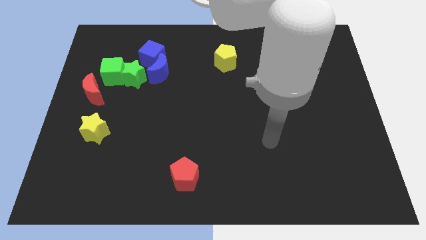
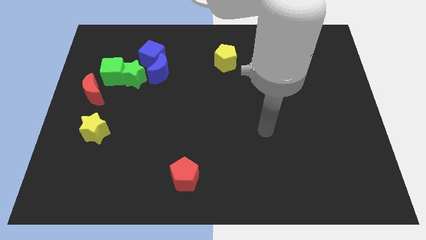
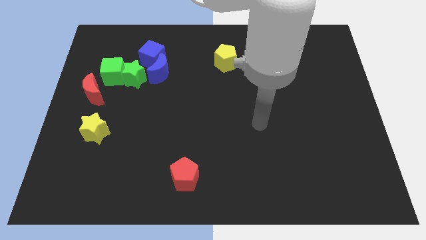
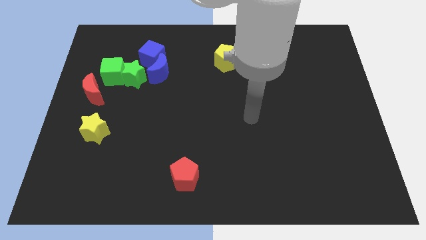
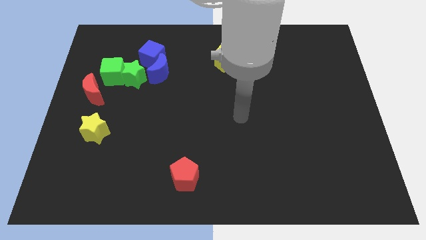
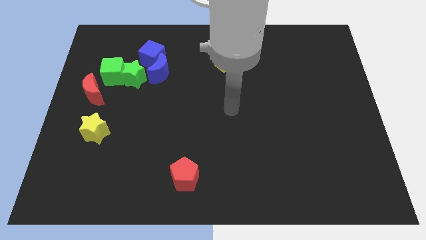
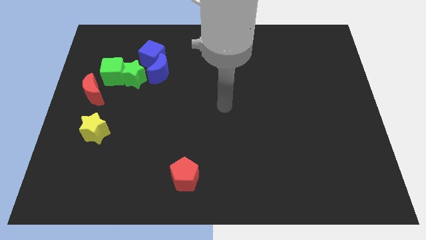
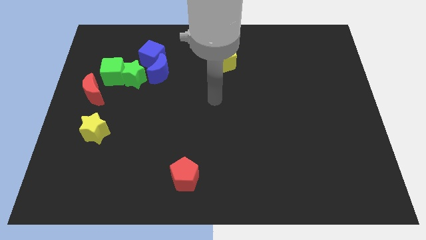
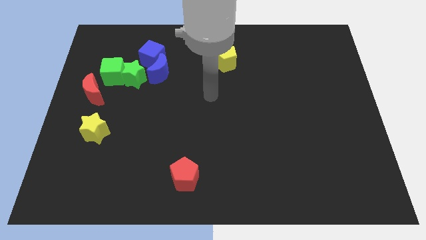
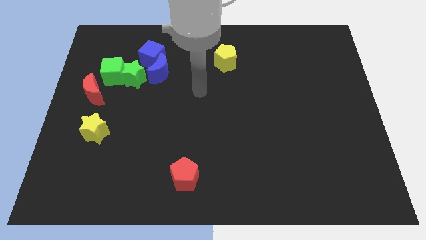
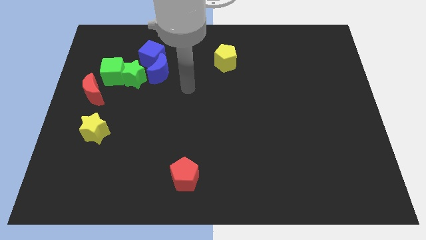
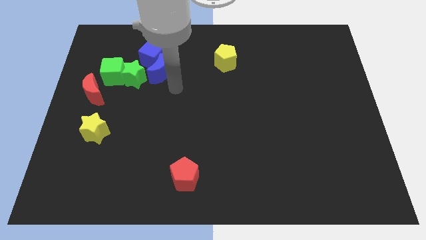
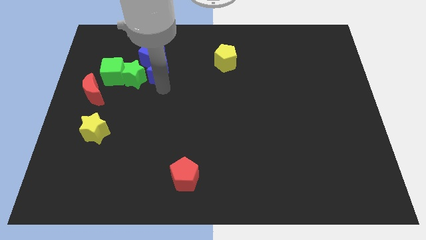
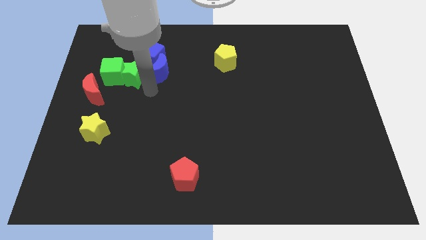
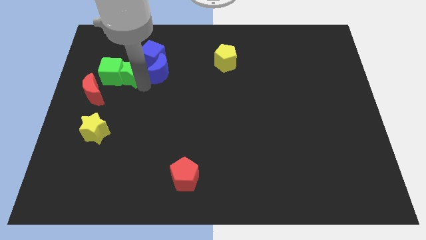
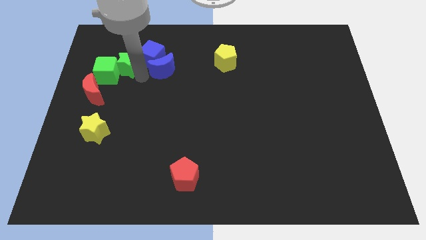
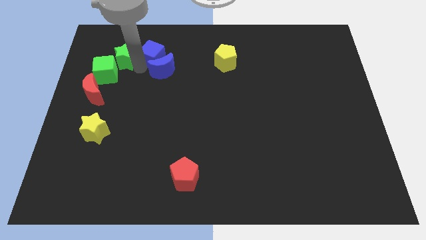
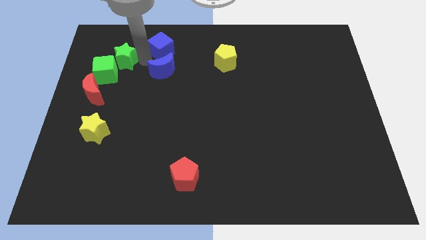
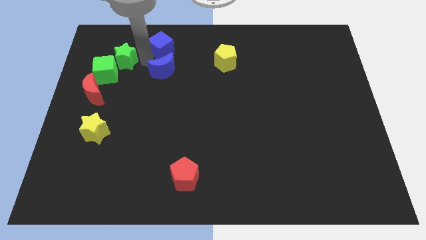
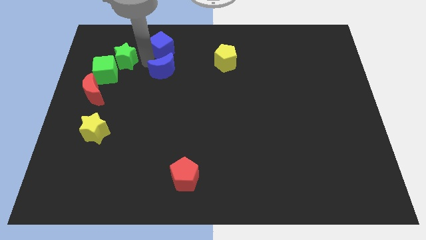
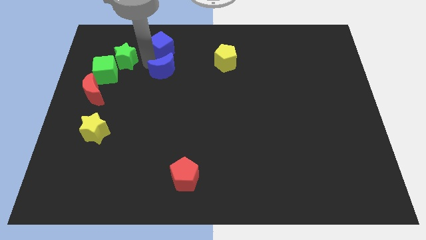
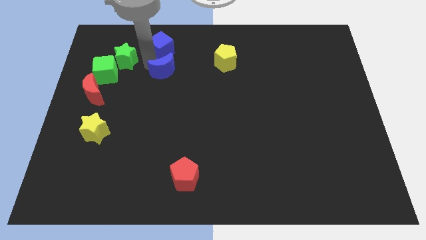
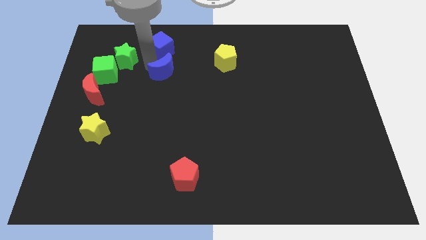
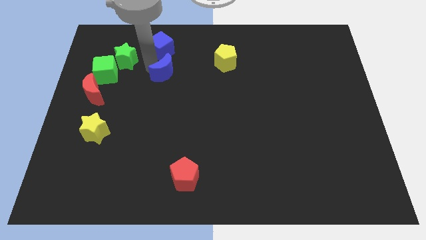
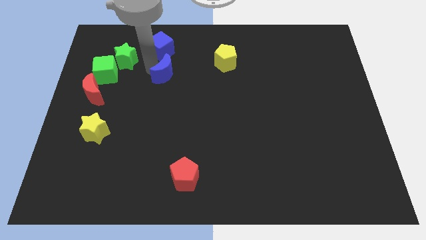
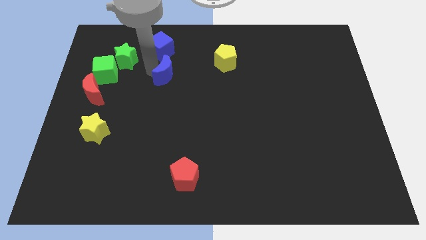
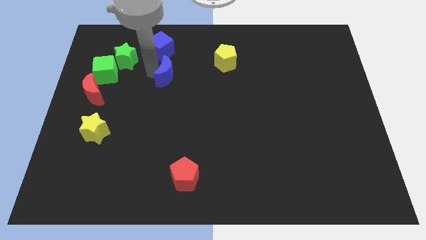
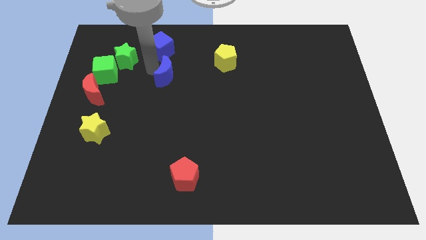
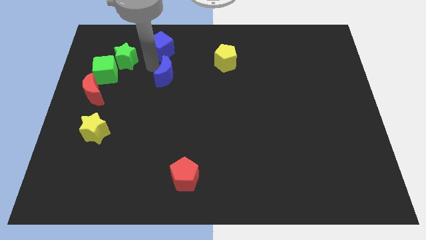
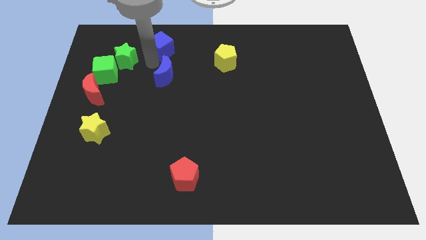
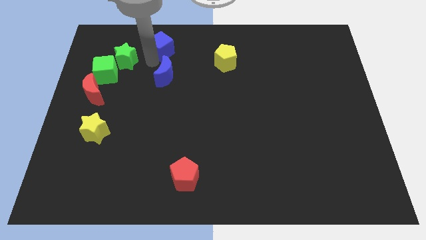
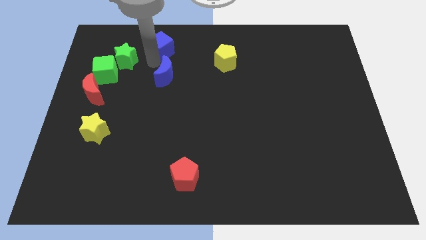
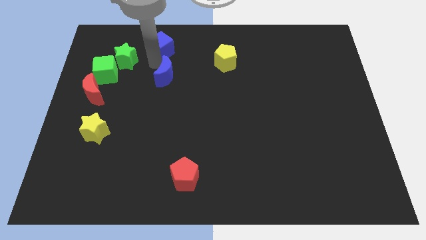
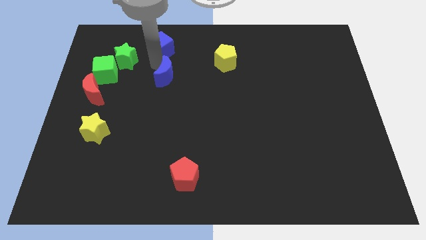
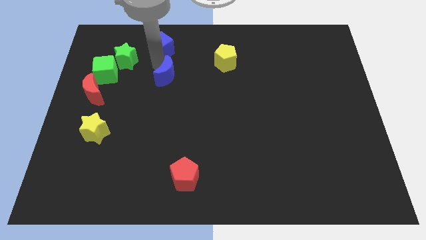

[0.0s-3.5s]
pull the blue moon apart from the blue cube and green star

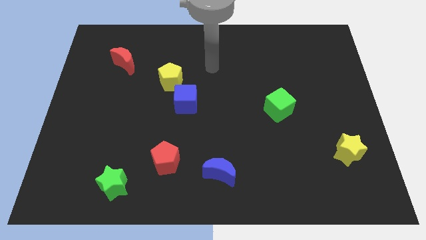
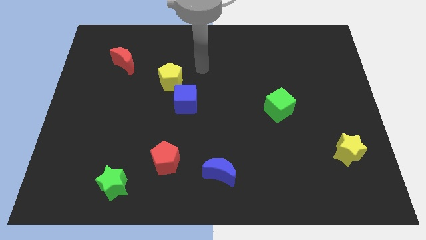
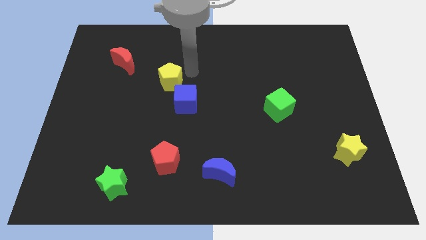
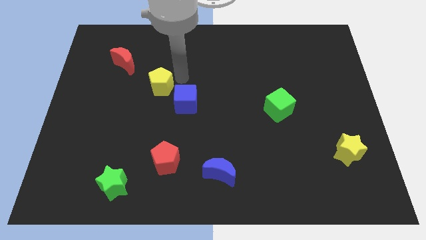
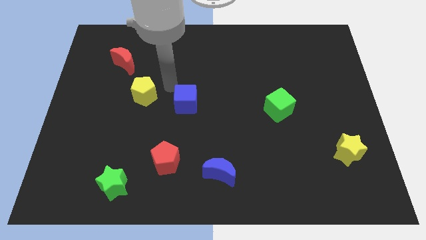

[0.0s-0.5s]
separate the blue cube from the yellow pentagon

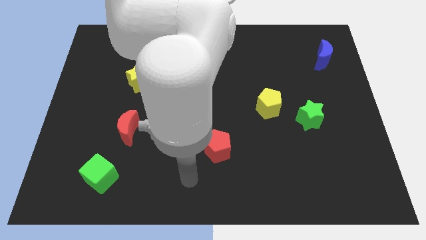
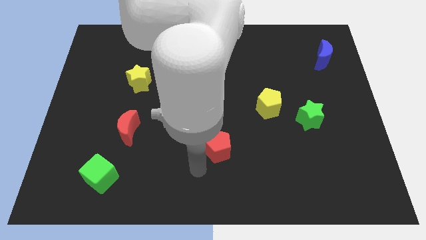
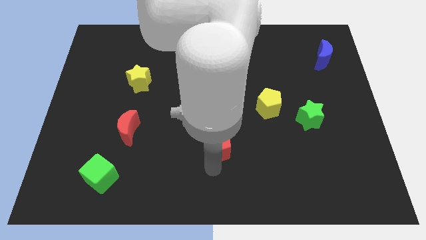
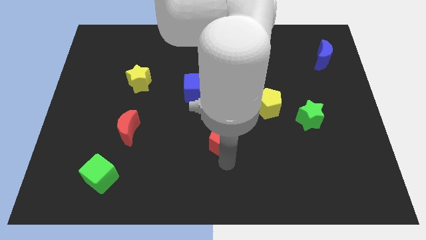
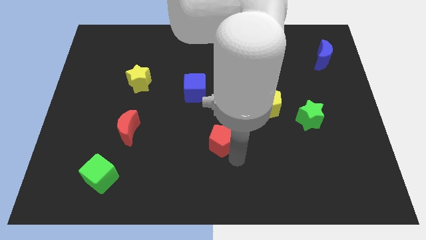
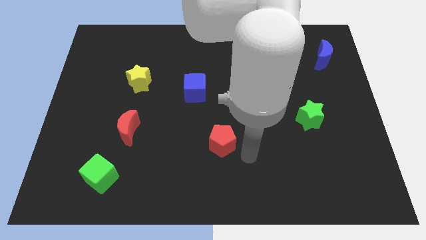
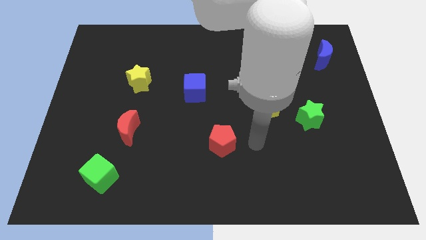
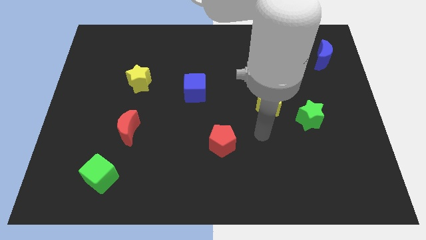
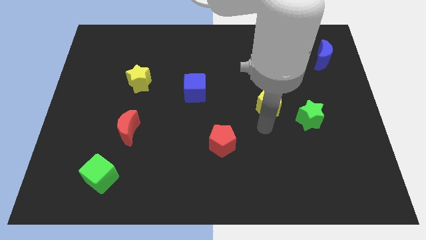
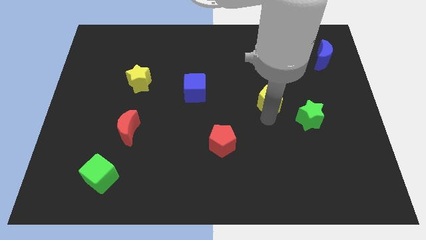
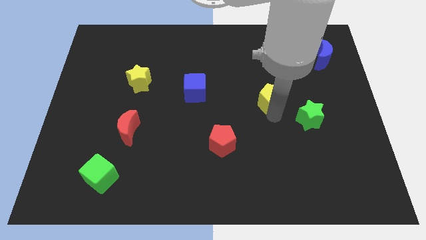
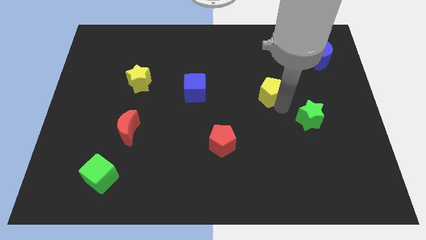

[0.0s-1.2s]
separate the green star from the yellow pentagon

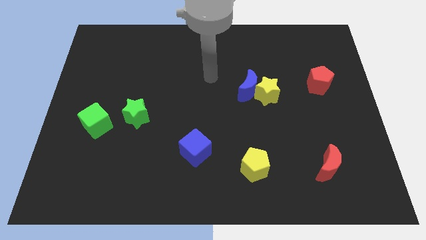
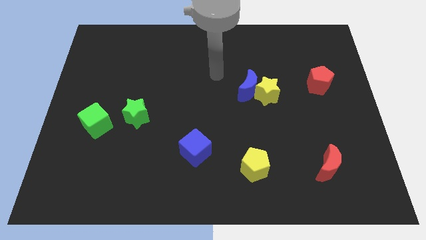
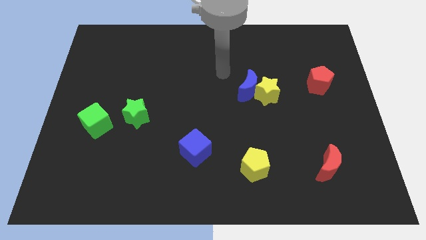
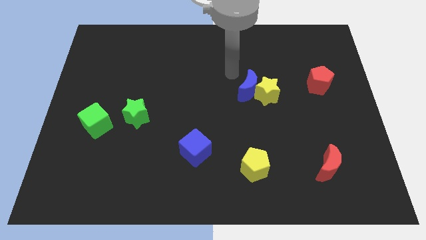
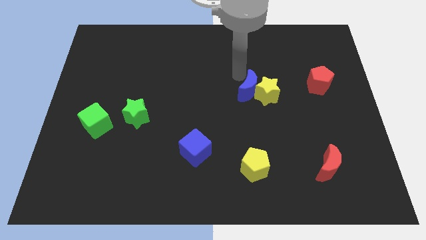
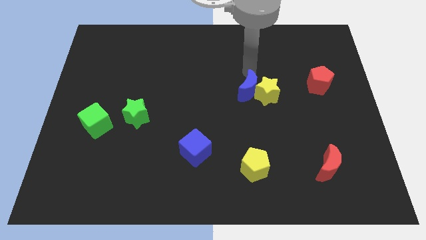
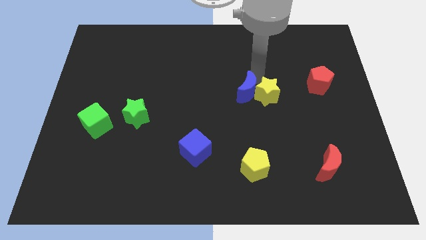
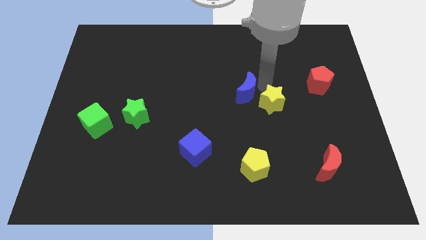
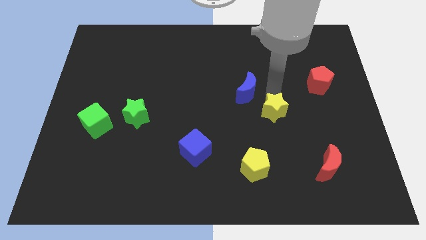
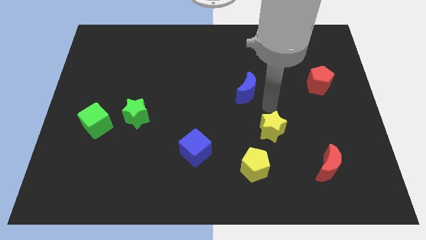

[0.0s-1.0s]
separate the blue moon from the yellow star

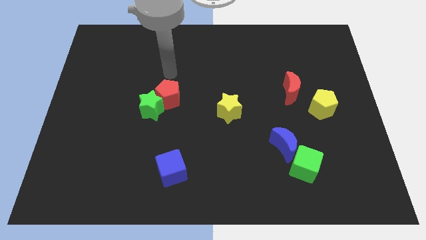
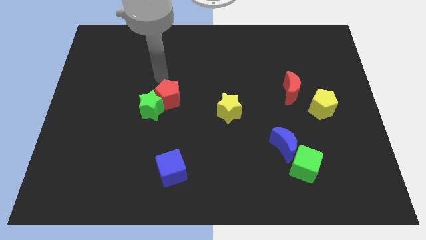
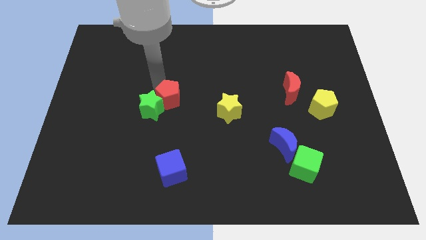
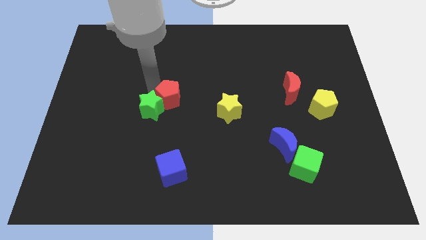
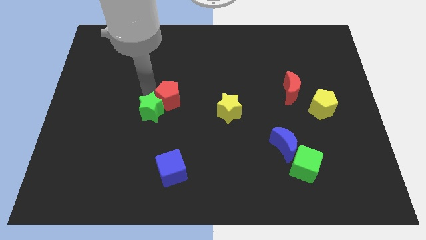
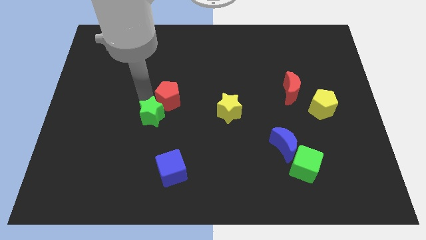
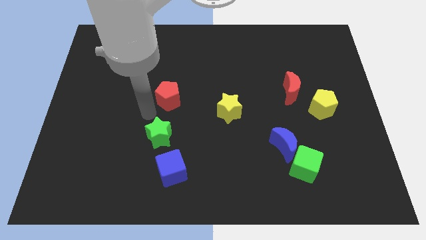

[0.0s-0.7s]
pull the red pentagon apart from the green star

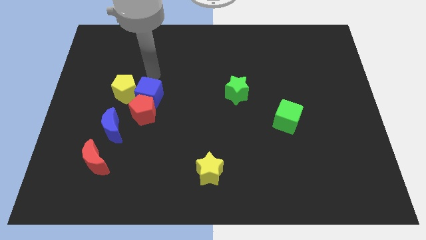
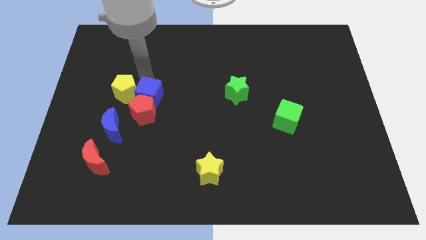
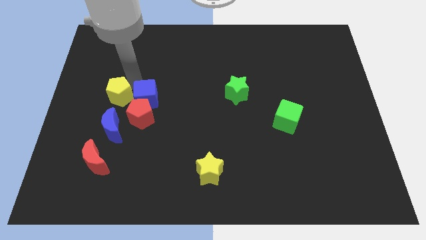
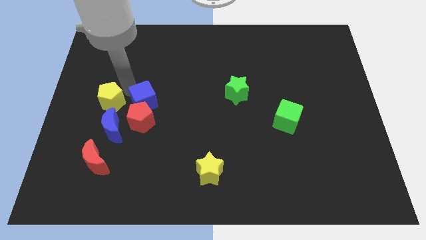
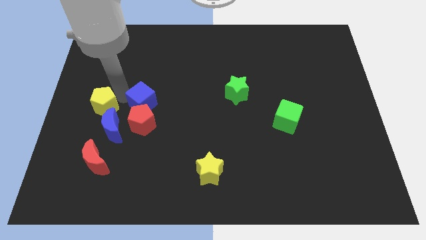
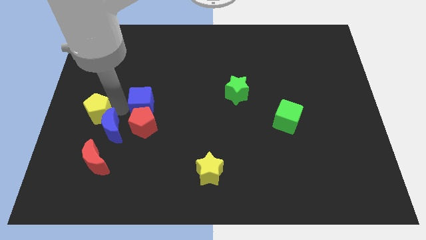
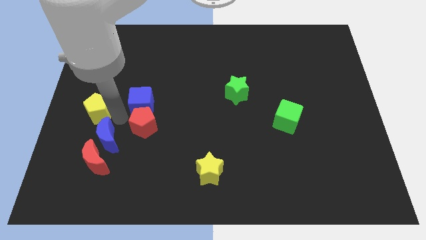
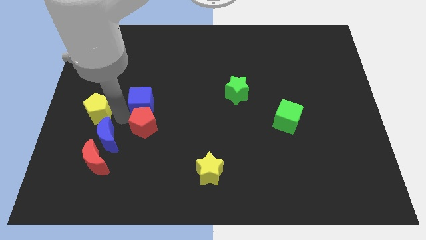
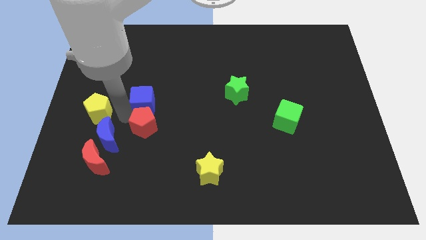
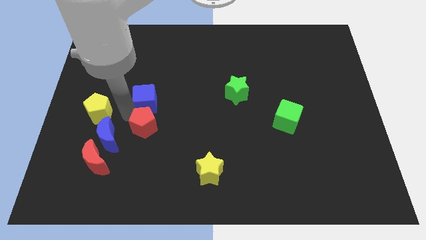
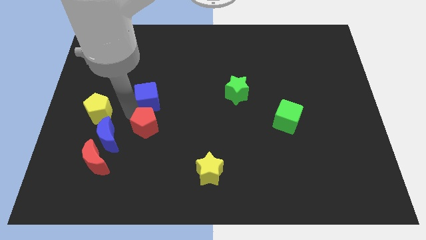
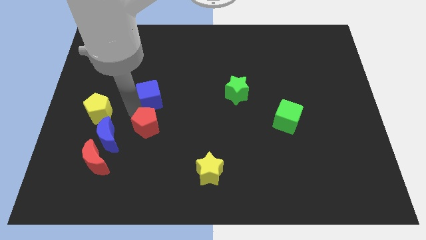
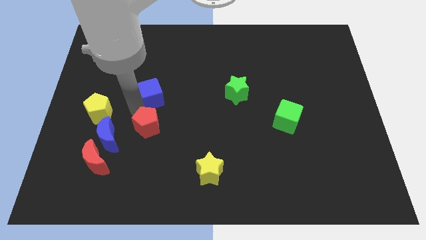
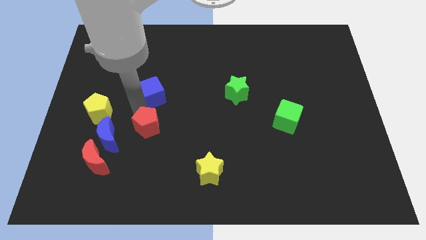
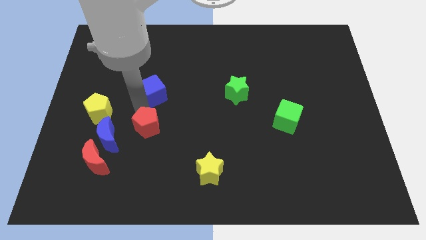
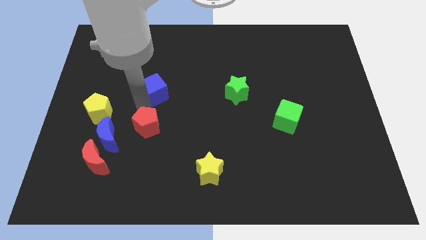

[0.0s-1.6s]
move the blue cube away from the red pentagon and yellow pentagon

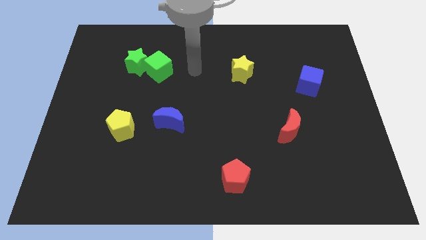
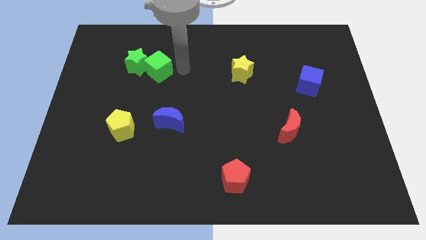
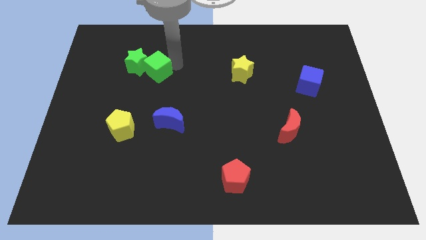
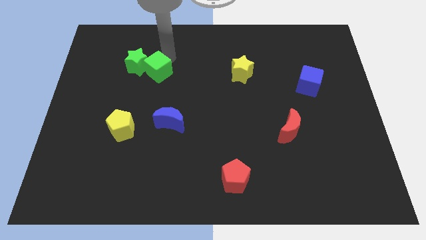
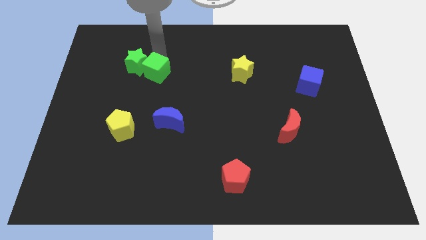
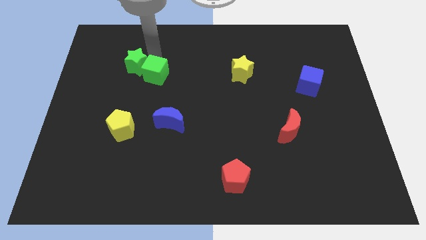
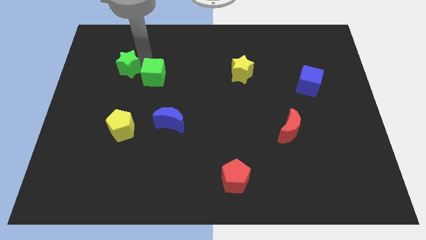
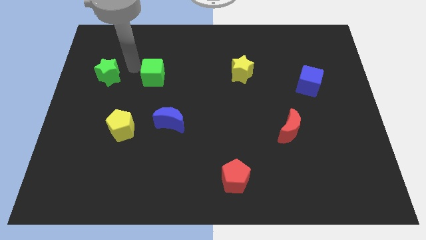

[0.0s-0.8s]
move the green cube away from the green star

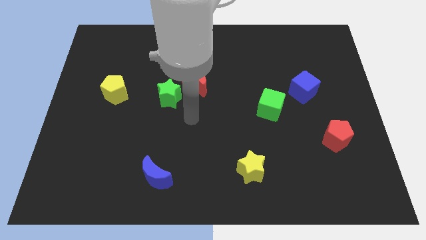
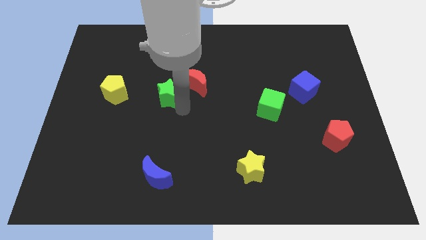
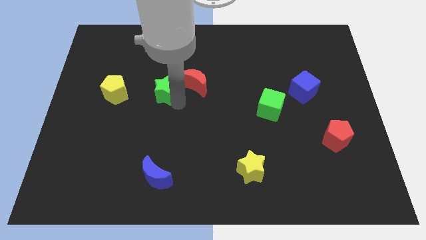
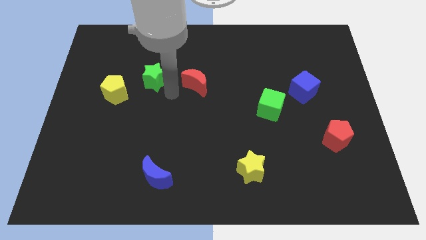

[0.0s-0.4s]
move the red moon away from the green star
